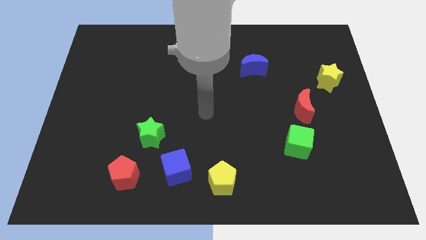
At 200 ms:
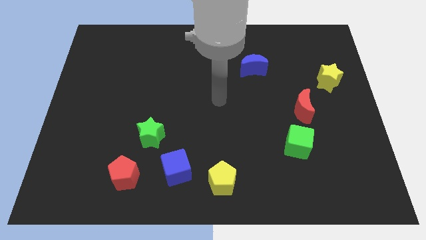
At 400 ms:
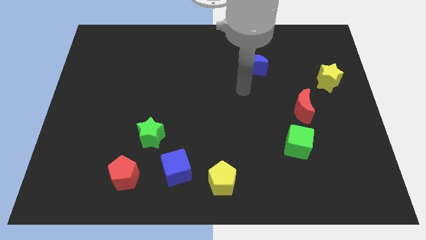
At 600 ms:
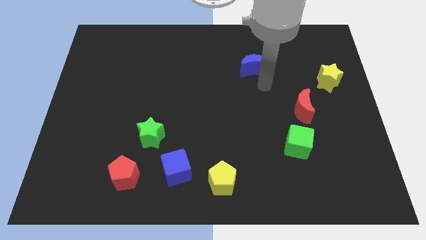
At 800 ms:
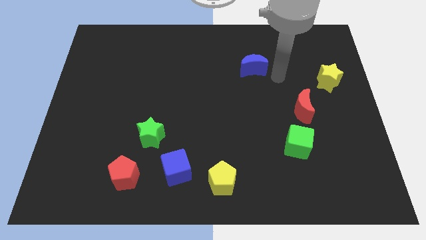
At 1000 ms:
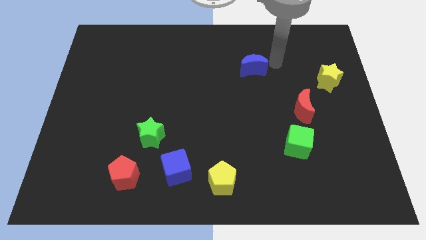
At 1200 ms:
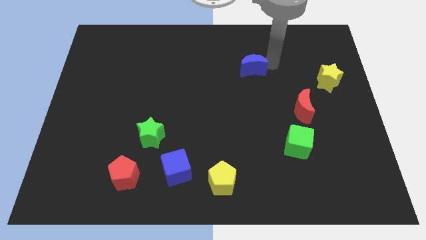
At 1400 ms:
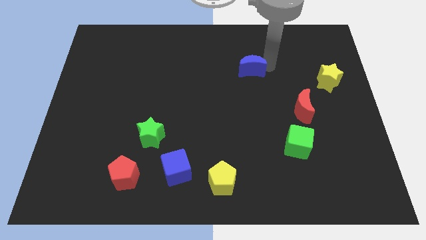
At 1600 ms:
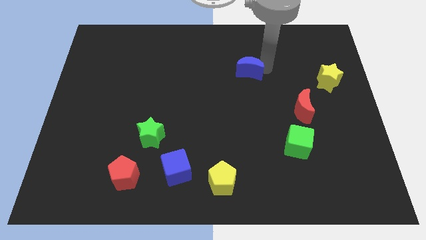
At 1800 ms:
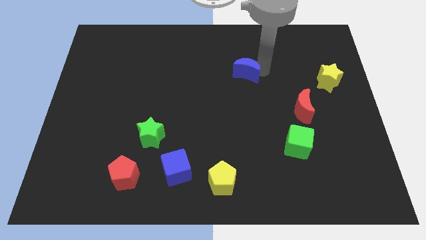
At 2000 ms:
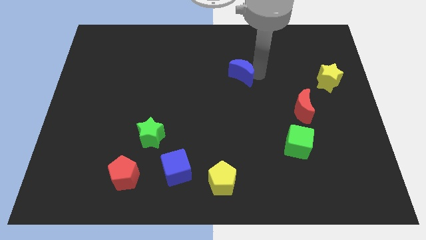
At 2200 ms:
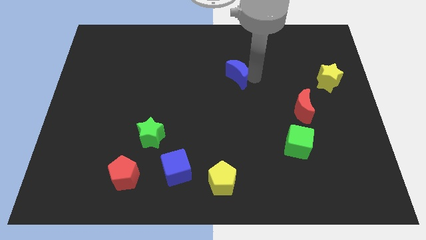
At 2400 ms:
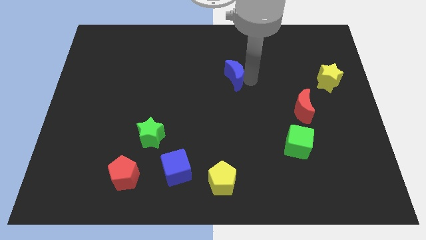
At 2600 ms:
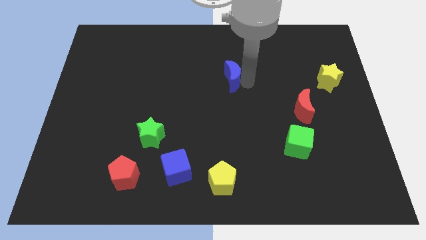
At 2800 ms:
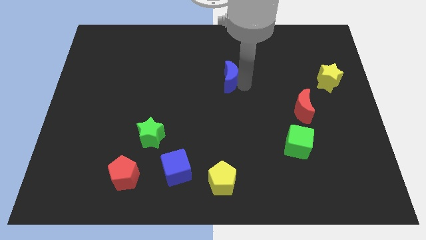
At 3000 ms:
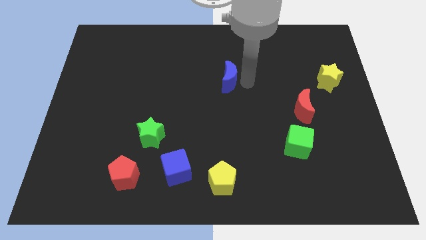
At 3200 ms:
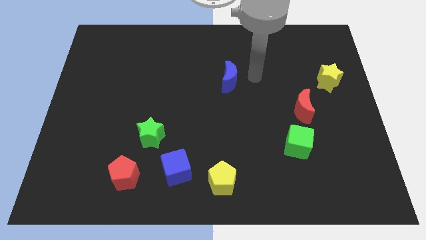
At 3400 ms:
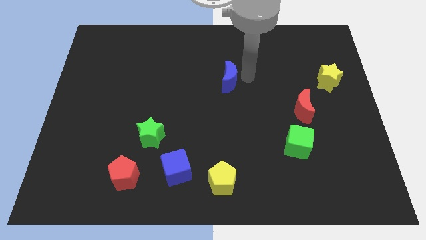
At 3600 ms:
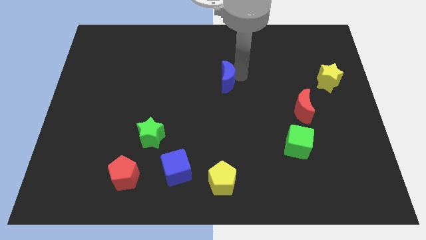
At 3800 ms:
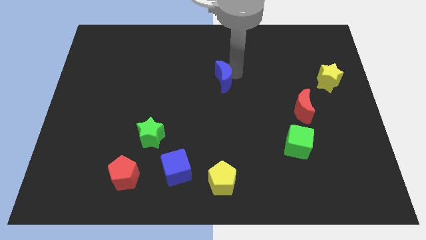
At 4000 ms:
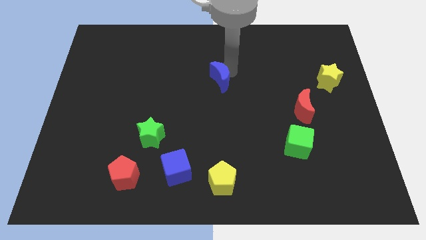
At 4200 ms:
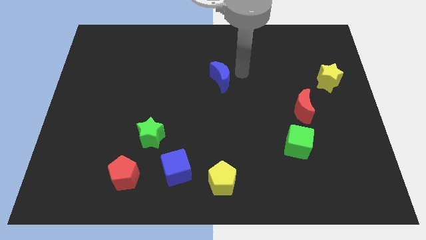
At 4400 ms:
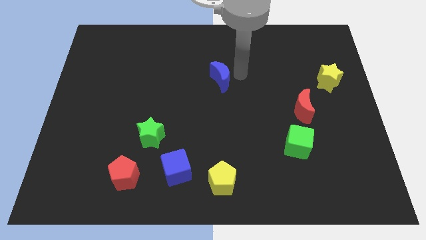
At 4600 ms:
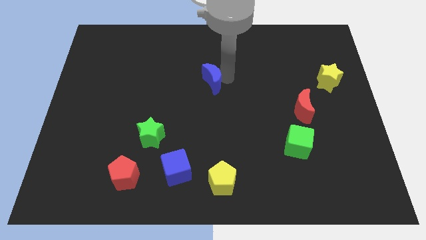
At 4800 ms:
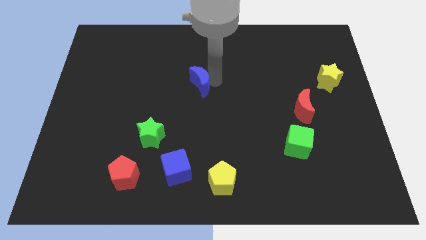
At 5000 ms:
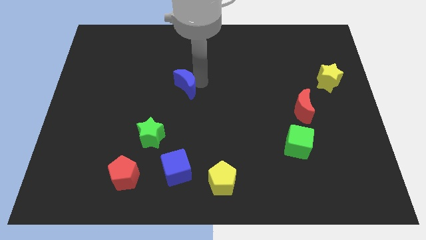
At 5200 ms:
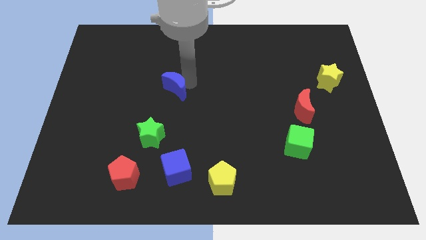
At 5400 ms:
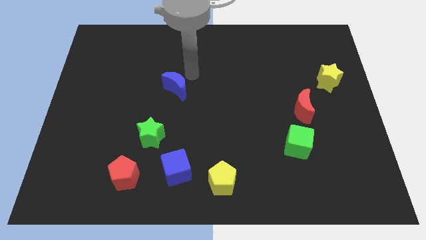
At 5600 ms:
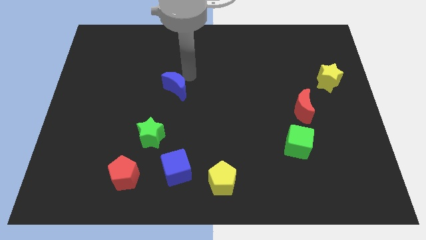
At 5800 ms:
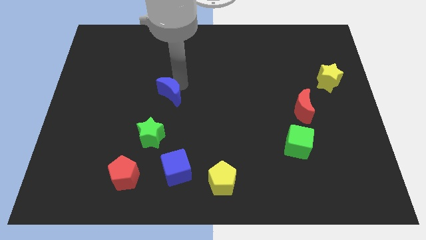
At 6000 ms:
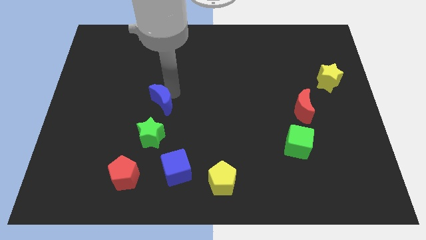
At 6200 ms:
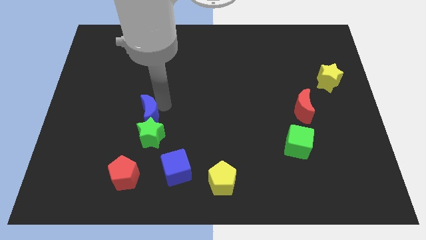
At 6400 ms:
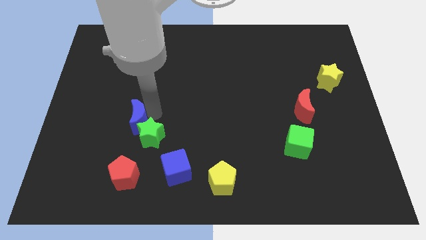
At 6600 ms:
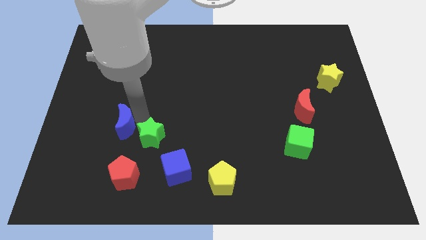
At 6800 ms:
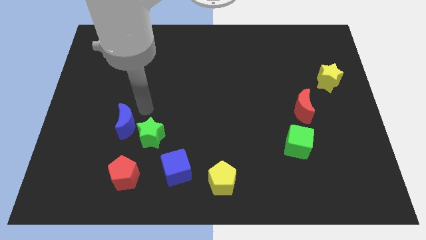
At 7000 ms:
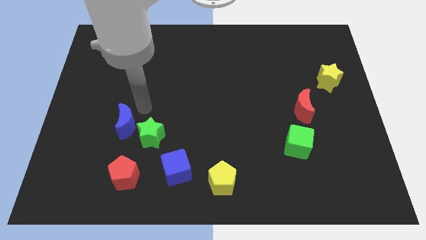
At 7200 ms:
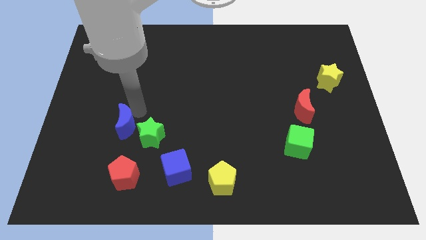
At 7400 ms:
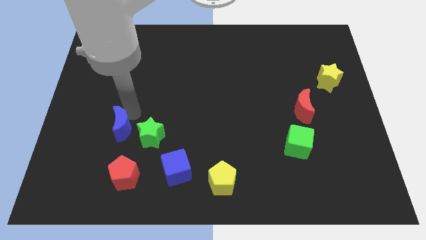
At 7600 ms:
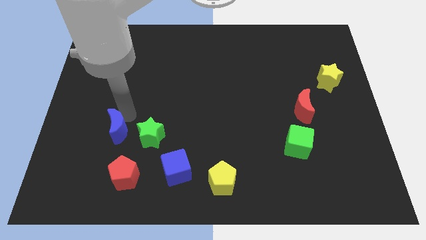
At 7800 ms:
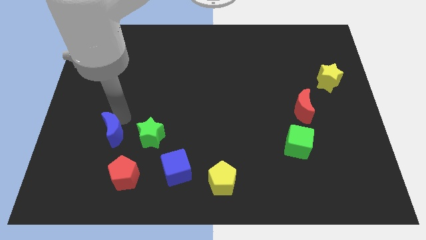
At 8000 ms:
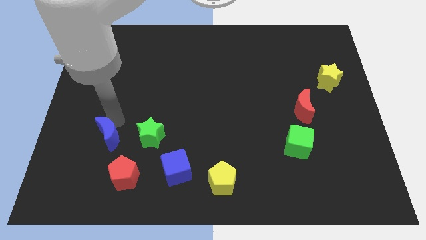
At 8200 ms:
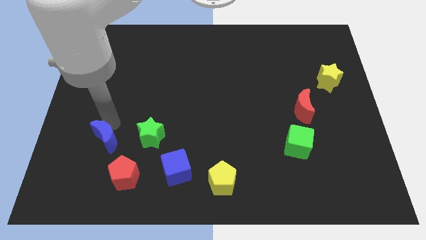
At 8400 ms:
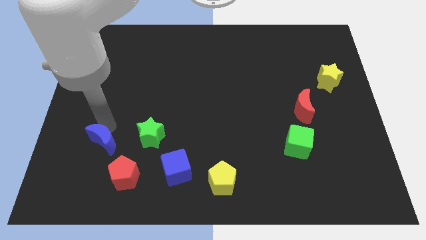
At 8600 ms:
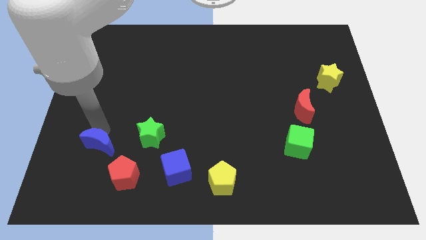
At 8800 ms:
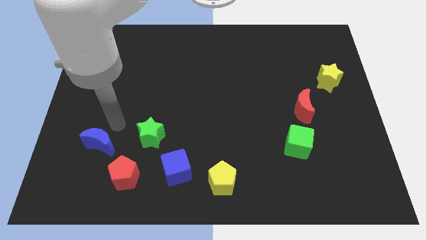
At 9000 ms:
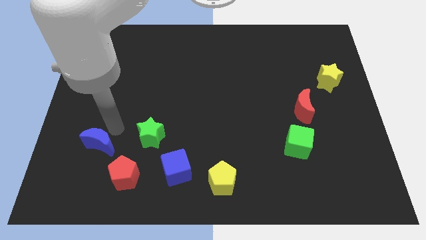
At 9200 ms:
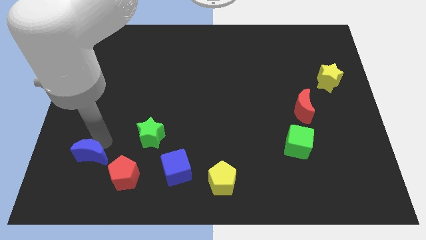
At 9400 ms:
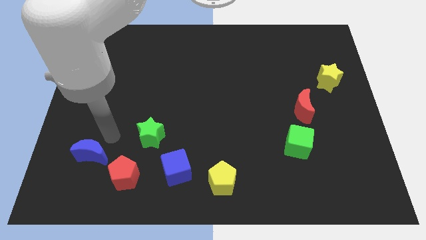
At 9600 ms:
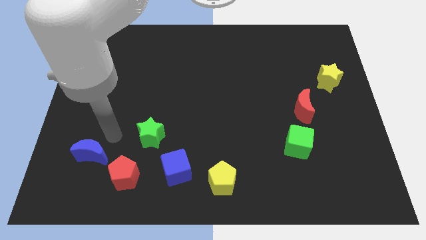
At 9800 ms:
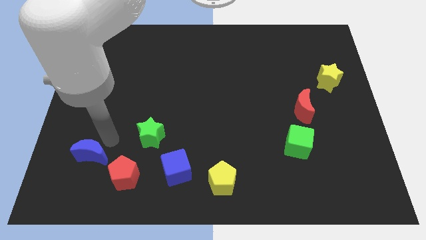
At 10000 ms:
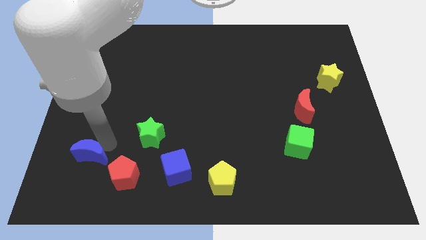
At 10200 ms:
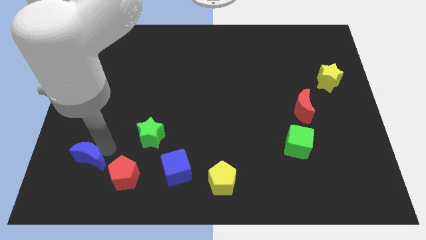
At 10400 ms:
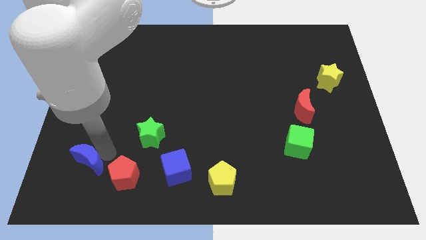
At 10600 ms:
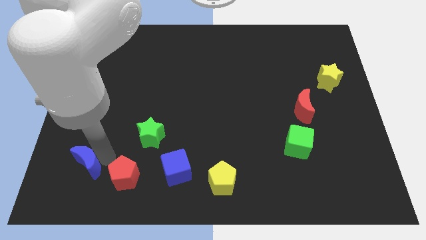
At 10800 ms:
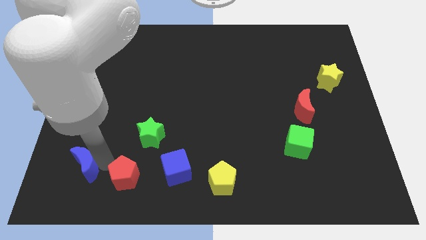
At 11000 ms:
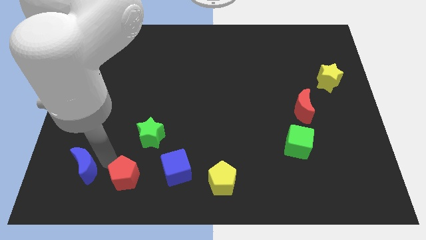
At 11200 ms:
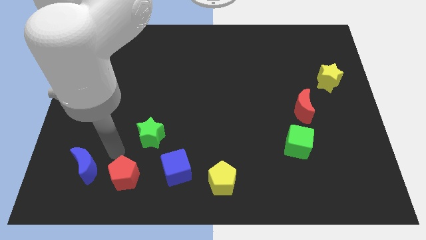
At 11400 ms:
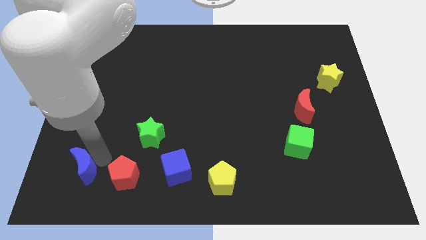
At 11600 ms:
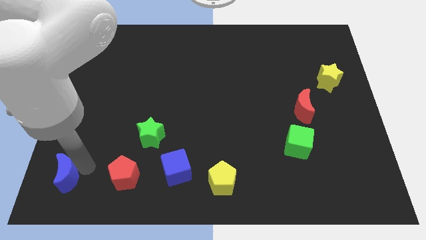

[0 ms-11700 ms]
move the blue moon to the bottom left

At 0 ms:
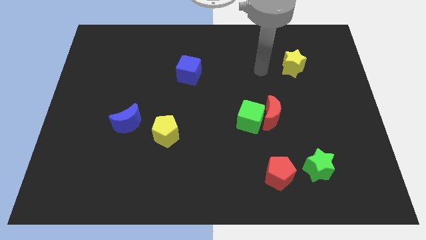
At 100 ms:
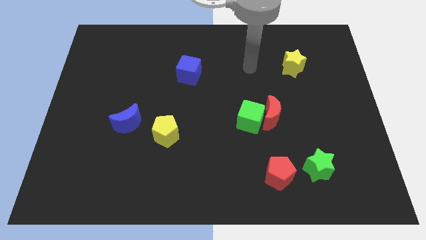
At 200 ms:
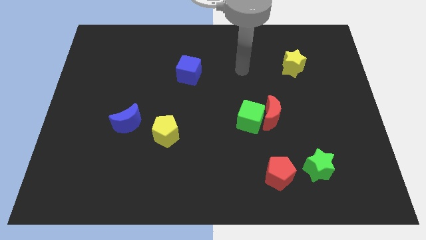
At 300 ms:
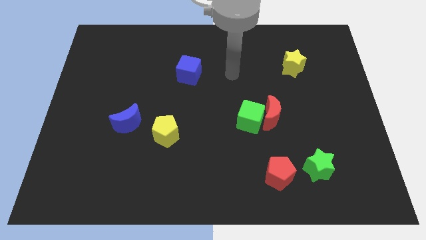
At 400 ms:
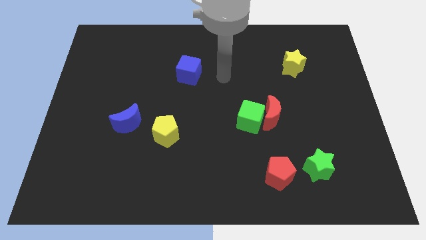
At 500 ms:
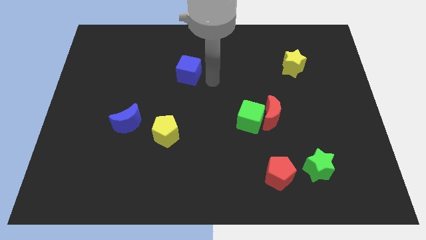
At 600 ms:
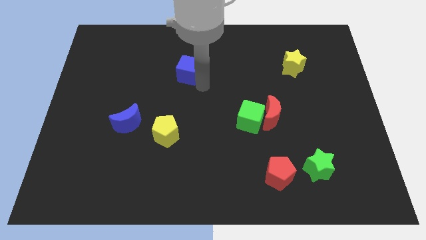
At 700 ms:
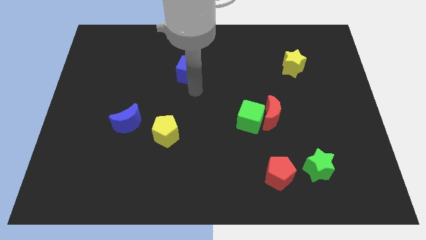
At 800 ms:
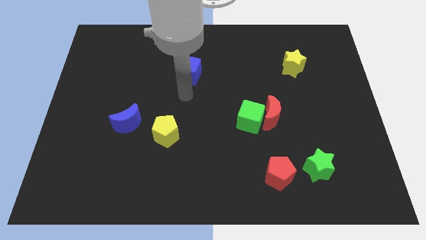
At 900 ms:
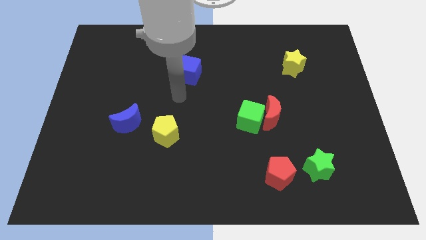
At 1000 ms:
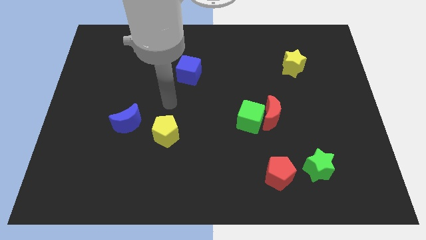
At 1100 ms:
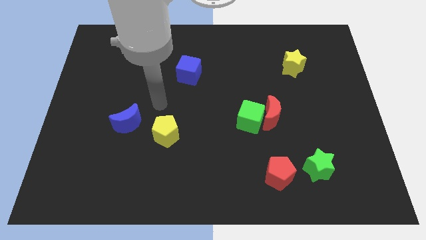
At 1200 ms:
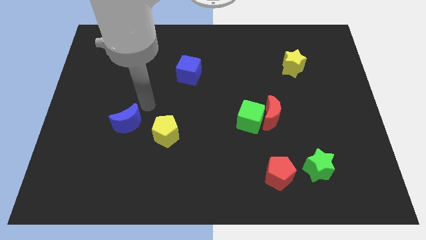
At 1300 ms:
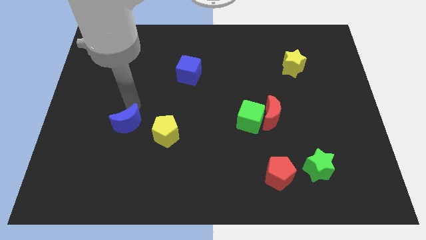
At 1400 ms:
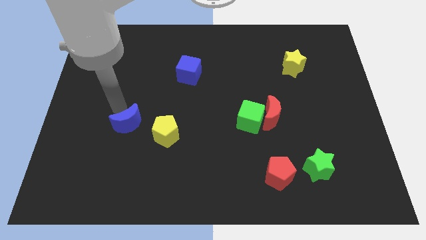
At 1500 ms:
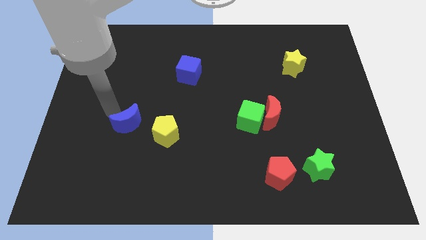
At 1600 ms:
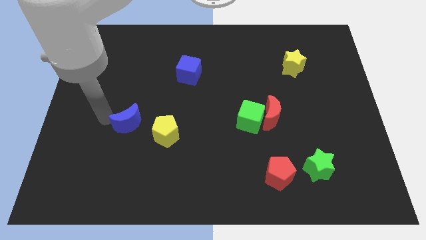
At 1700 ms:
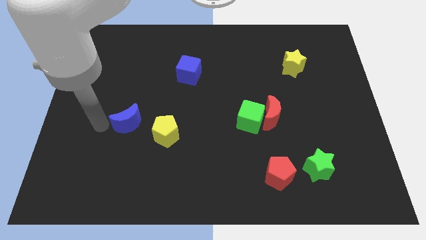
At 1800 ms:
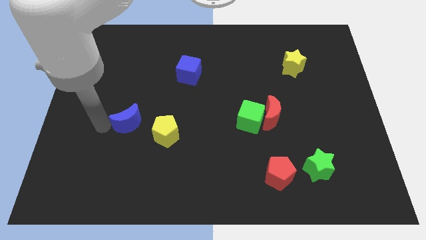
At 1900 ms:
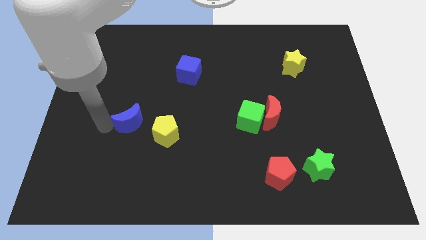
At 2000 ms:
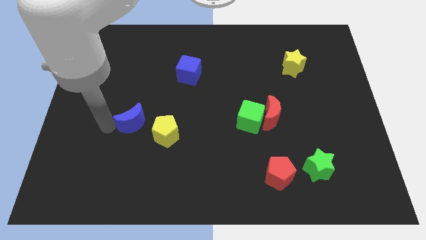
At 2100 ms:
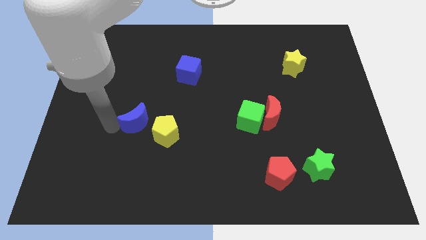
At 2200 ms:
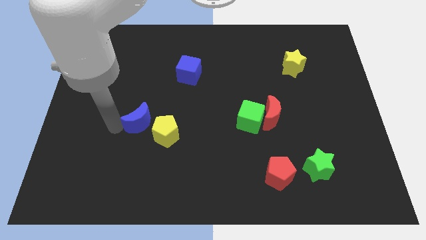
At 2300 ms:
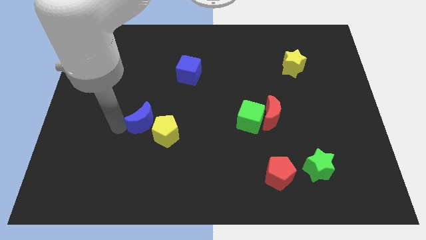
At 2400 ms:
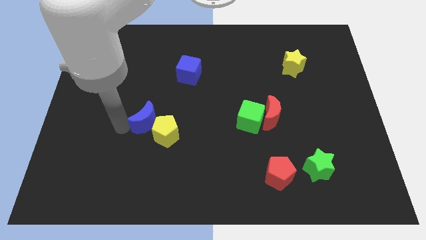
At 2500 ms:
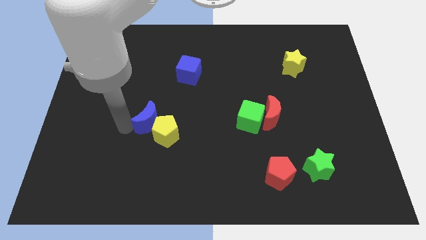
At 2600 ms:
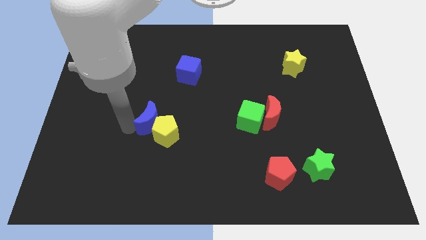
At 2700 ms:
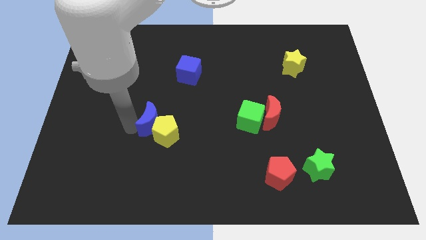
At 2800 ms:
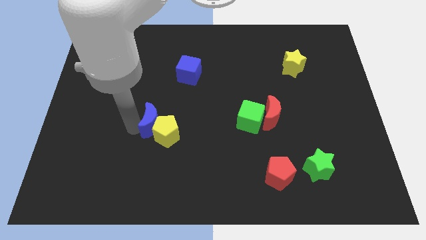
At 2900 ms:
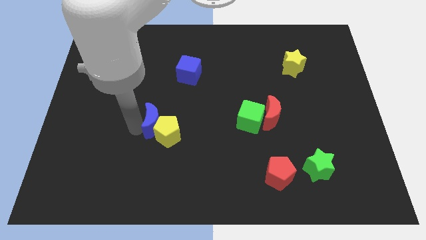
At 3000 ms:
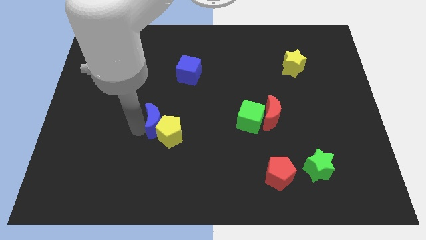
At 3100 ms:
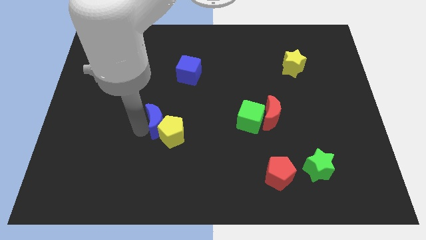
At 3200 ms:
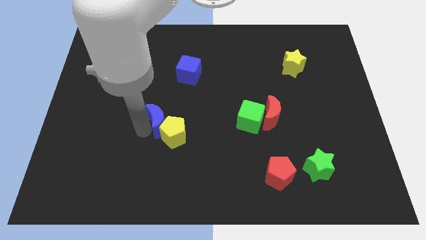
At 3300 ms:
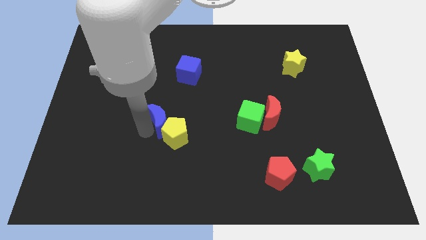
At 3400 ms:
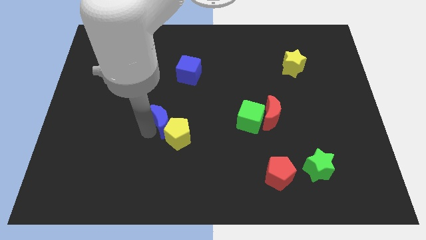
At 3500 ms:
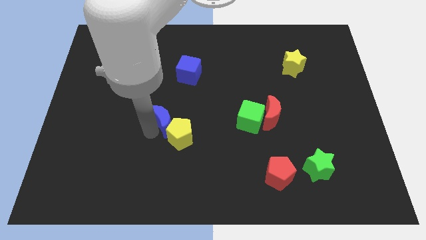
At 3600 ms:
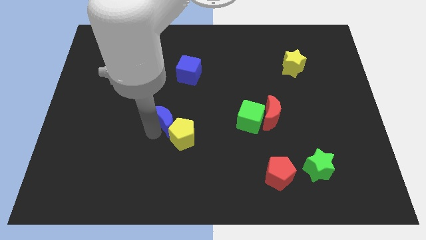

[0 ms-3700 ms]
push the blue moon to the center
